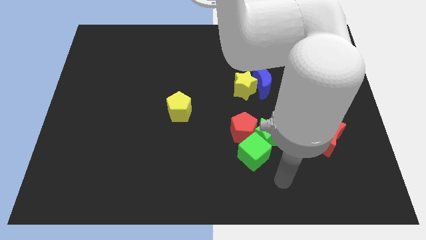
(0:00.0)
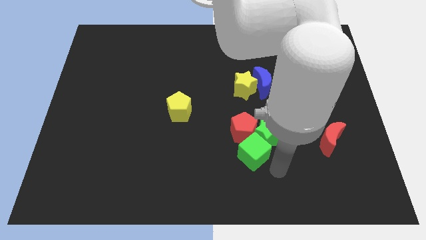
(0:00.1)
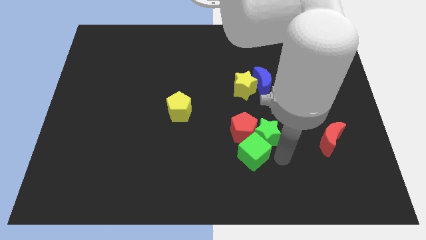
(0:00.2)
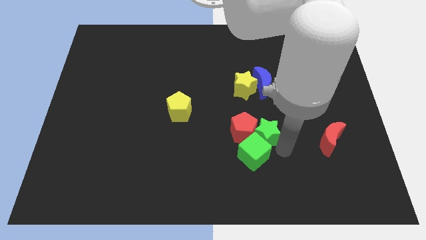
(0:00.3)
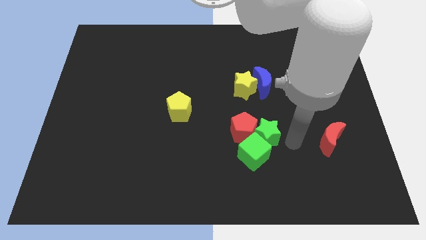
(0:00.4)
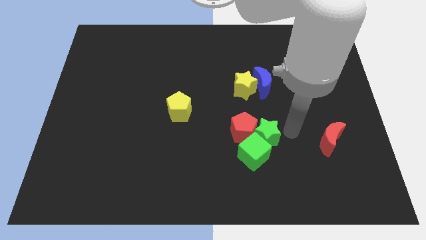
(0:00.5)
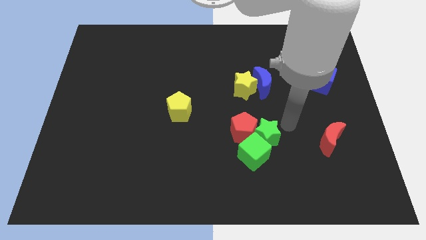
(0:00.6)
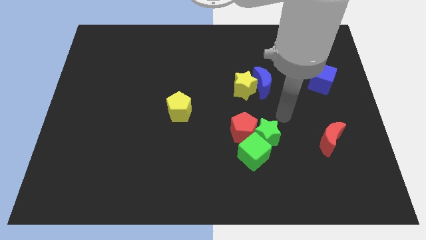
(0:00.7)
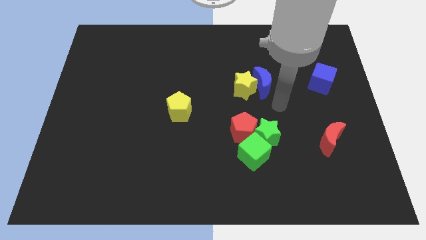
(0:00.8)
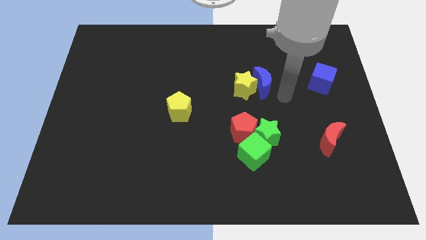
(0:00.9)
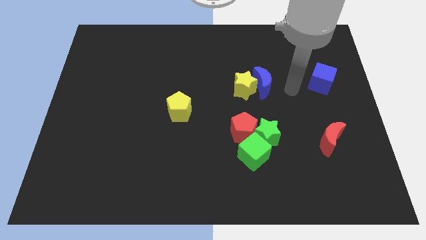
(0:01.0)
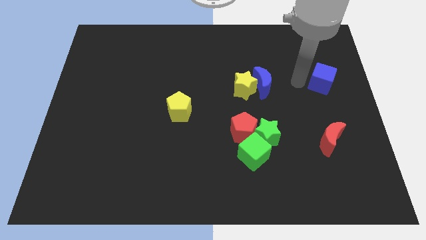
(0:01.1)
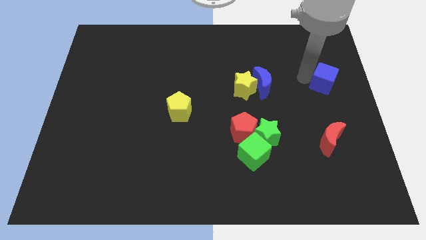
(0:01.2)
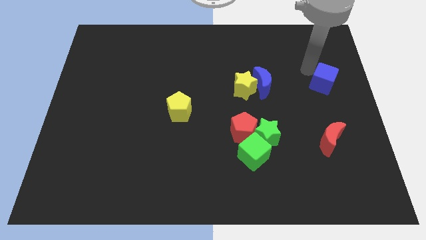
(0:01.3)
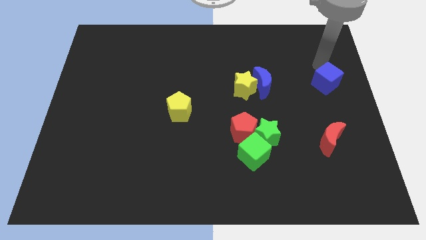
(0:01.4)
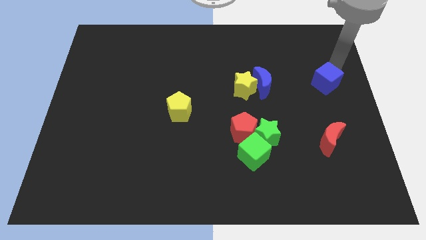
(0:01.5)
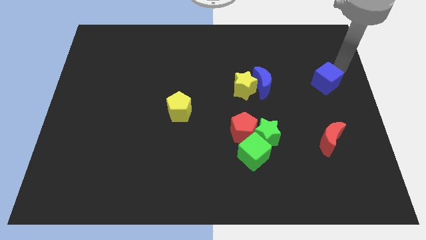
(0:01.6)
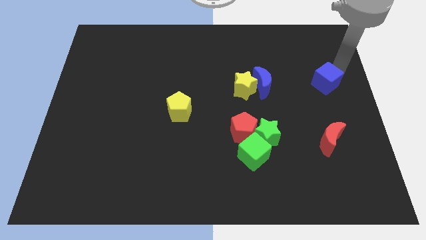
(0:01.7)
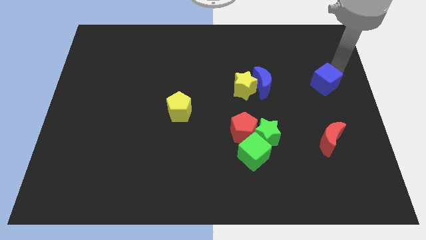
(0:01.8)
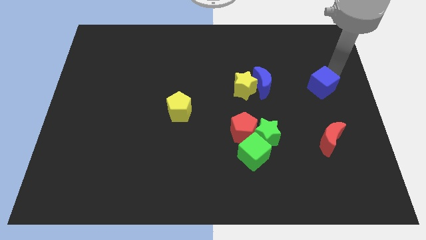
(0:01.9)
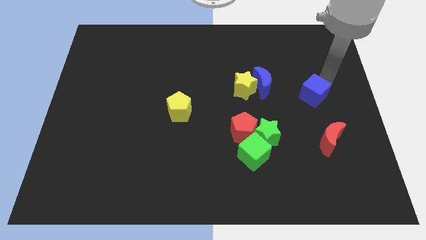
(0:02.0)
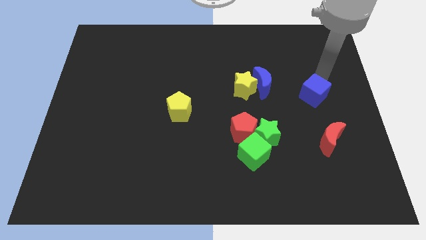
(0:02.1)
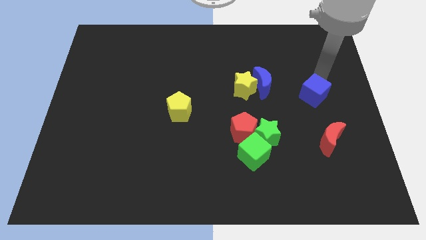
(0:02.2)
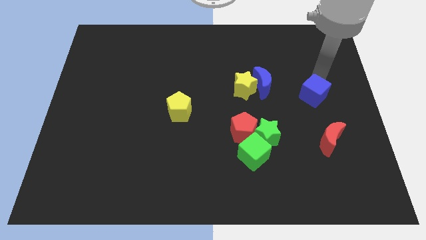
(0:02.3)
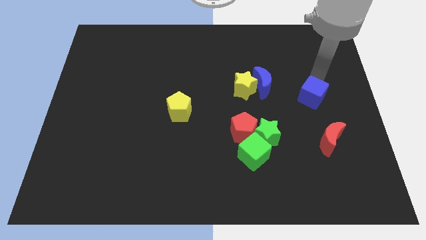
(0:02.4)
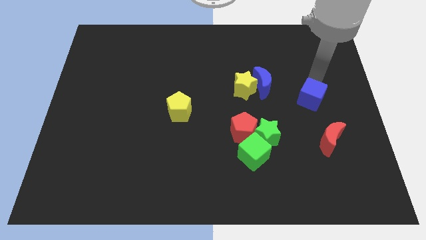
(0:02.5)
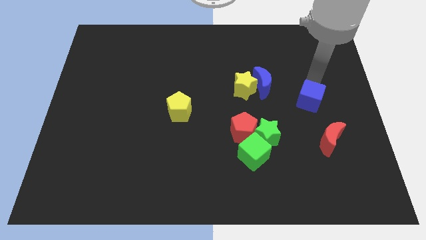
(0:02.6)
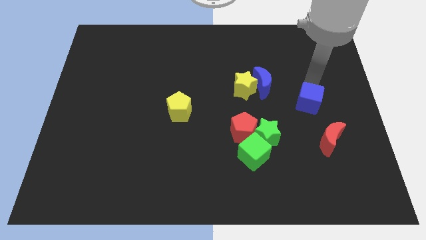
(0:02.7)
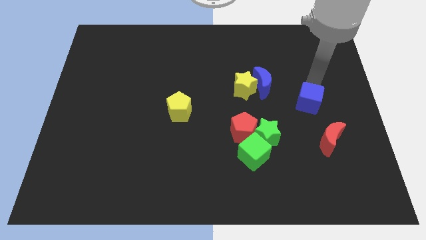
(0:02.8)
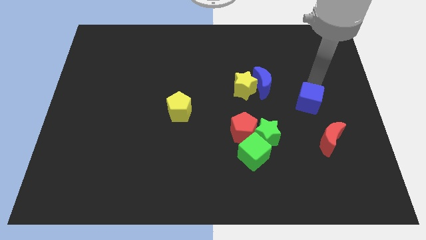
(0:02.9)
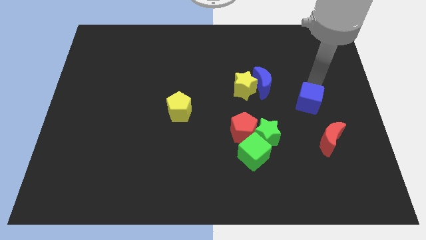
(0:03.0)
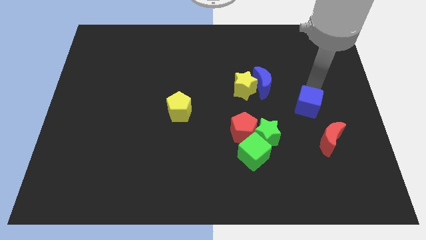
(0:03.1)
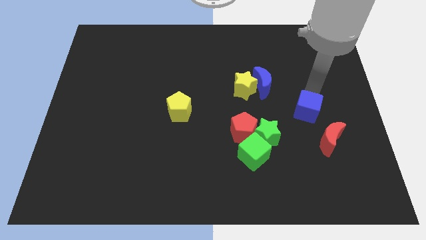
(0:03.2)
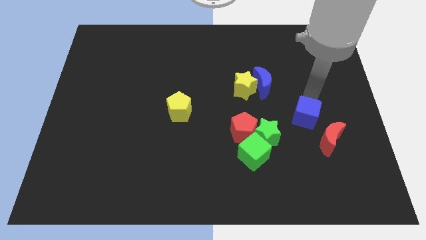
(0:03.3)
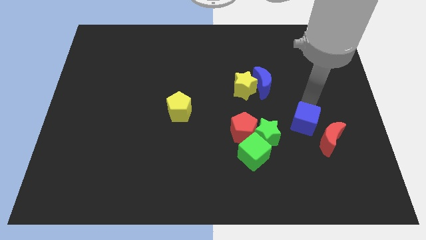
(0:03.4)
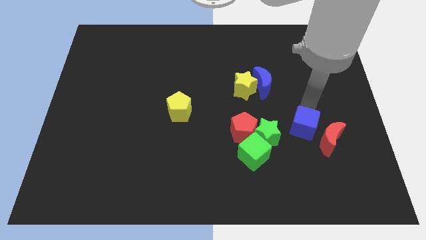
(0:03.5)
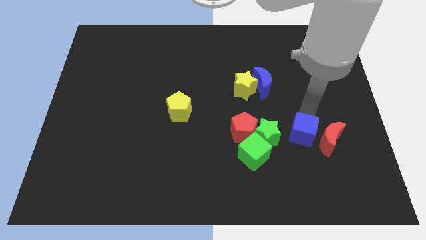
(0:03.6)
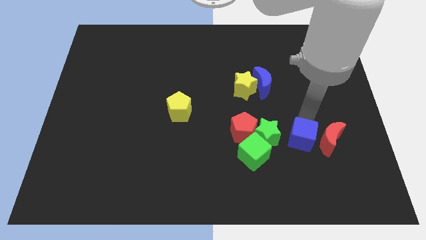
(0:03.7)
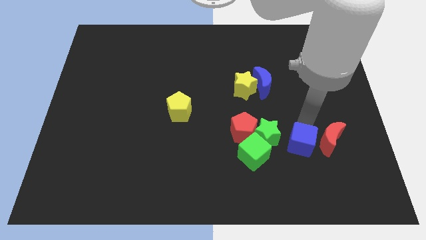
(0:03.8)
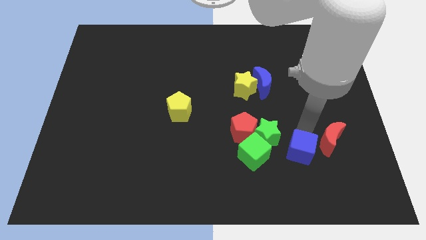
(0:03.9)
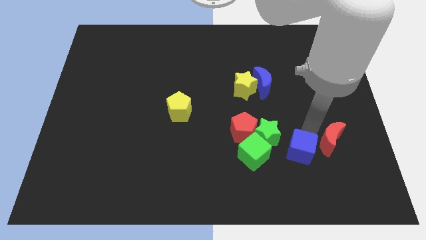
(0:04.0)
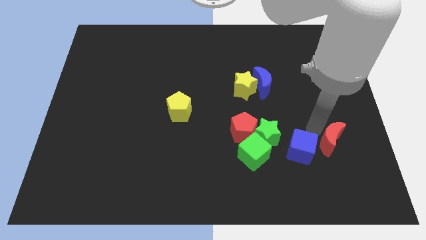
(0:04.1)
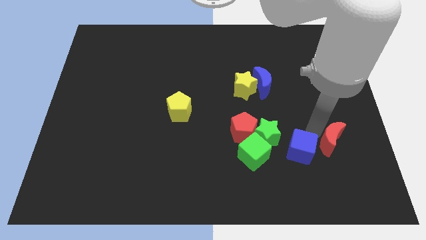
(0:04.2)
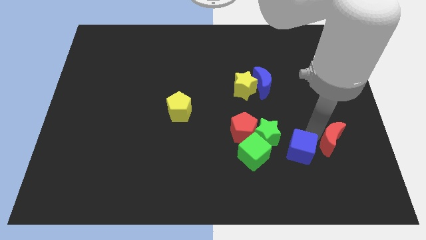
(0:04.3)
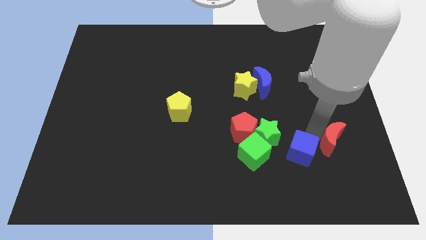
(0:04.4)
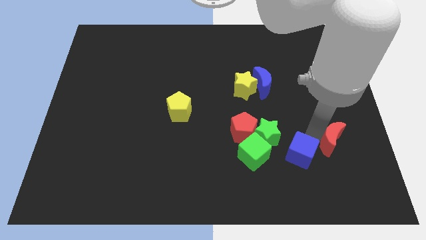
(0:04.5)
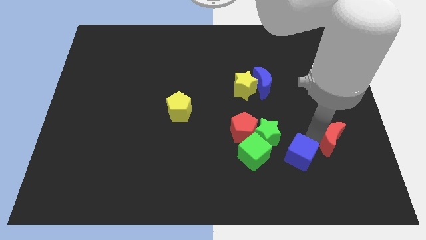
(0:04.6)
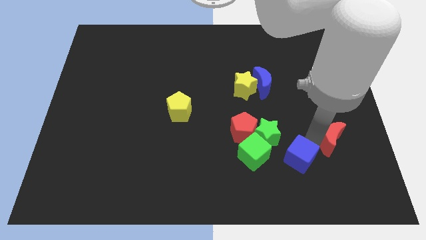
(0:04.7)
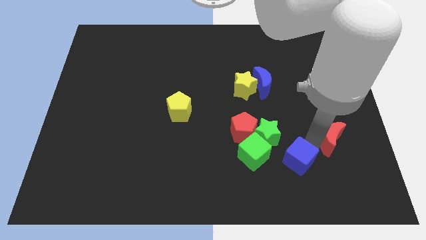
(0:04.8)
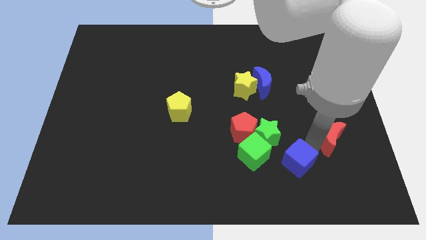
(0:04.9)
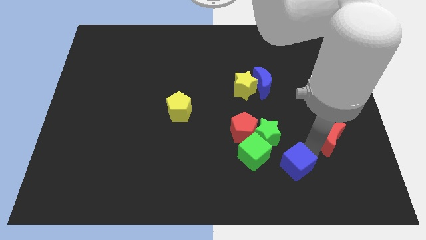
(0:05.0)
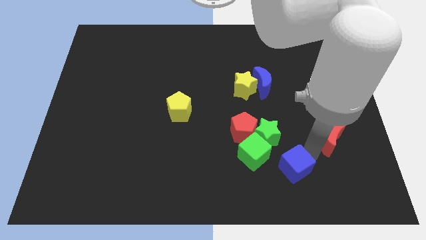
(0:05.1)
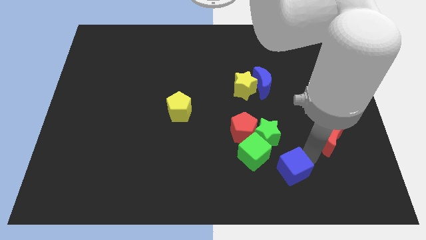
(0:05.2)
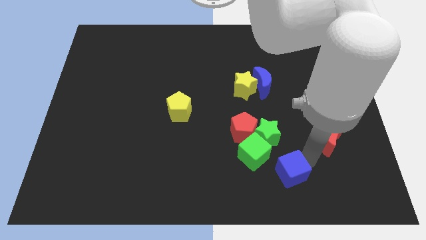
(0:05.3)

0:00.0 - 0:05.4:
push the blue cube below the green star

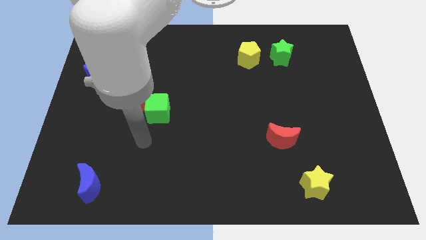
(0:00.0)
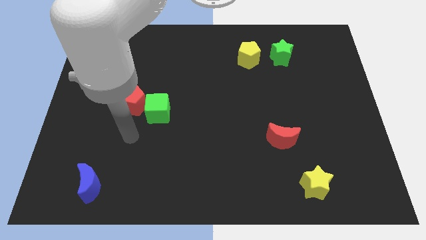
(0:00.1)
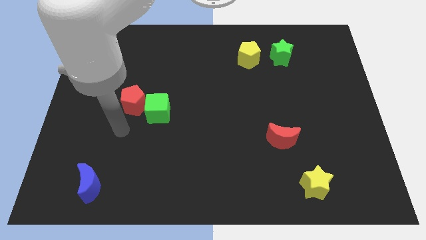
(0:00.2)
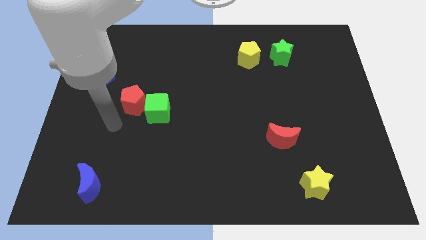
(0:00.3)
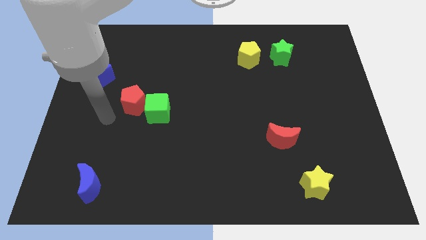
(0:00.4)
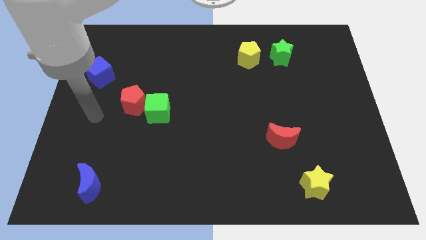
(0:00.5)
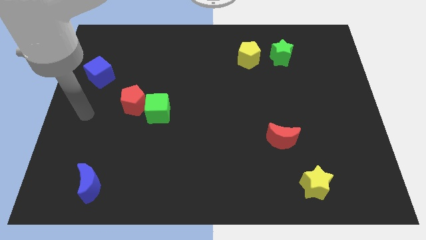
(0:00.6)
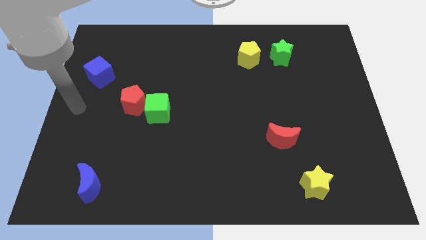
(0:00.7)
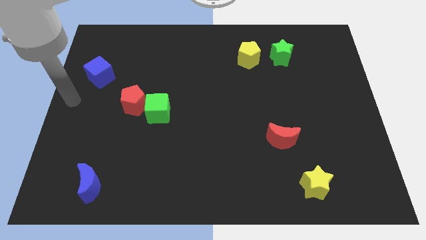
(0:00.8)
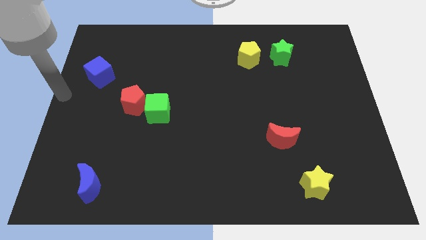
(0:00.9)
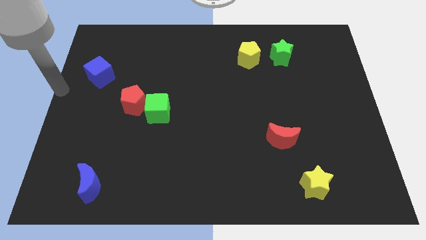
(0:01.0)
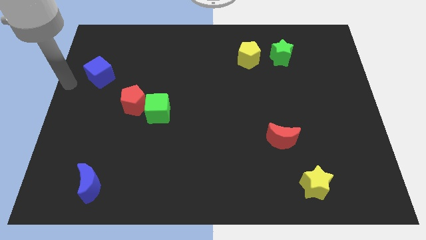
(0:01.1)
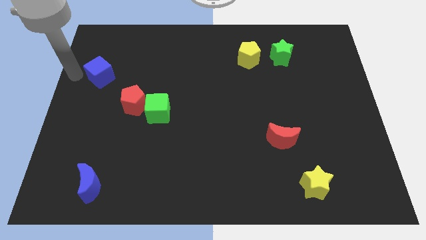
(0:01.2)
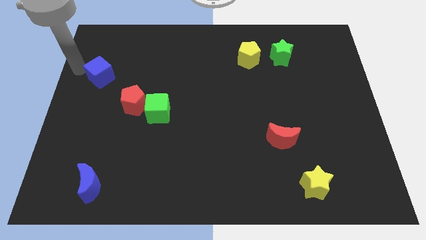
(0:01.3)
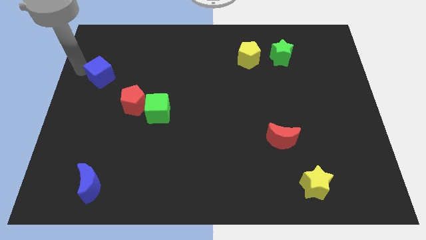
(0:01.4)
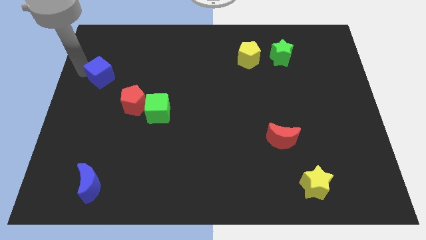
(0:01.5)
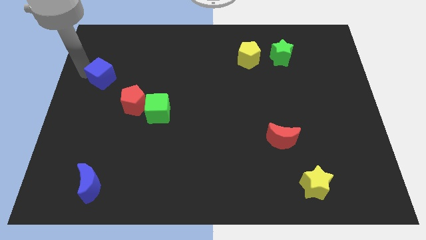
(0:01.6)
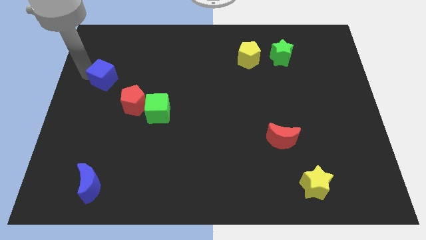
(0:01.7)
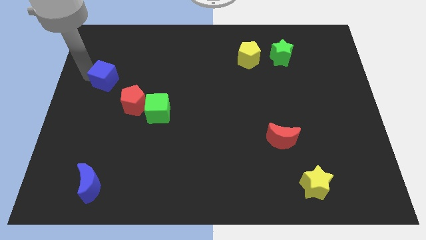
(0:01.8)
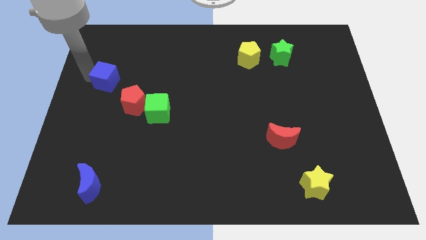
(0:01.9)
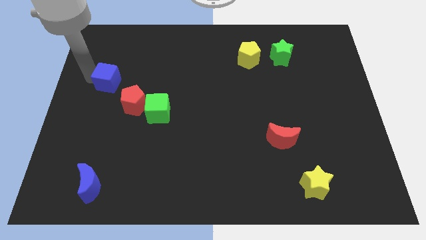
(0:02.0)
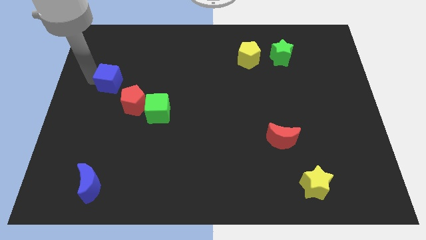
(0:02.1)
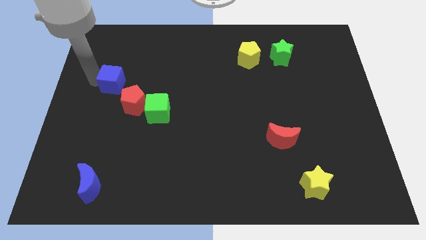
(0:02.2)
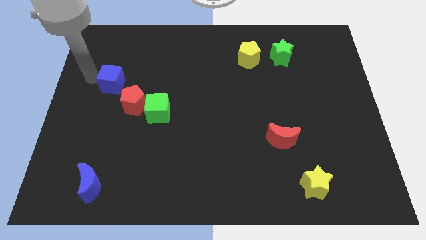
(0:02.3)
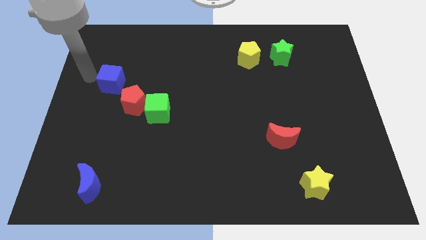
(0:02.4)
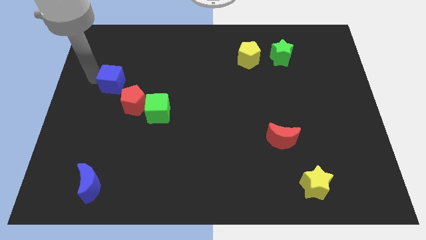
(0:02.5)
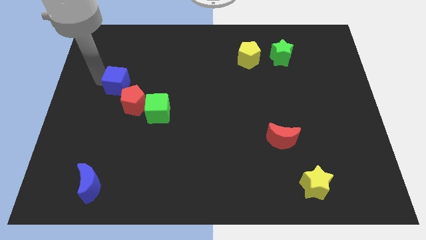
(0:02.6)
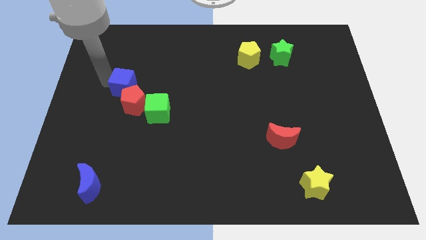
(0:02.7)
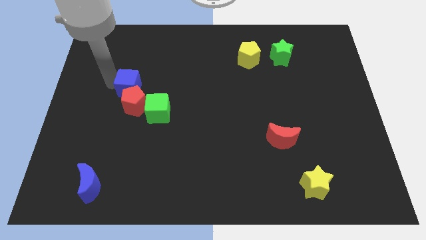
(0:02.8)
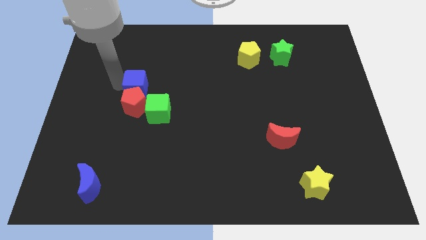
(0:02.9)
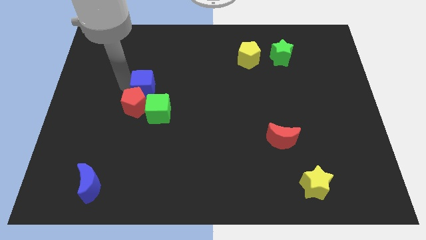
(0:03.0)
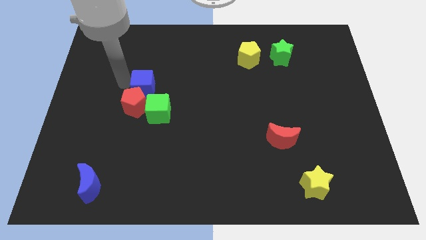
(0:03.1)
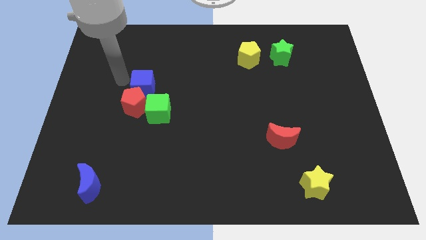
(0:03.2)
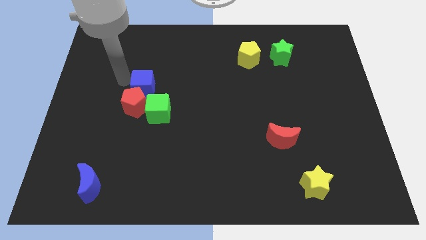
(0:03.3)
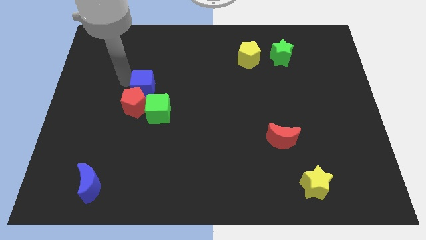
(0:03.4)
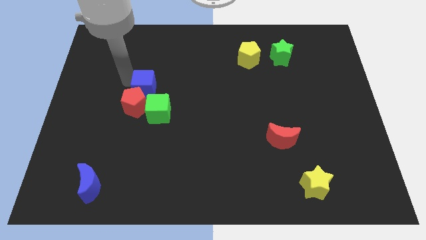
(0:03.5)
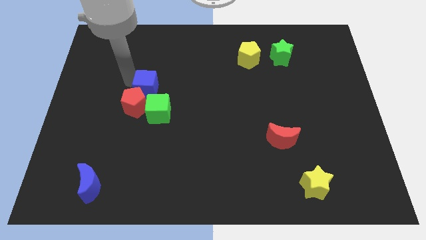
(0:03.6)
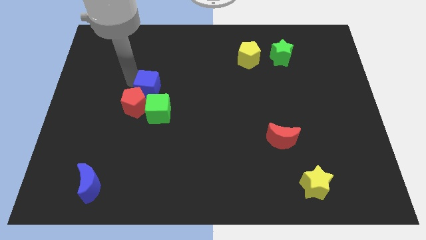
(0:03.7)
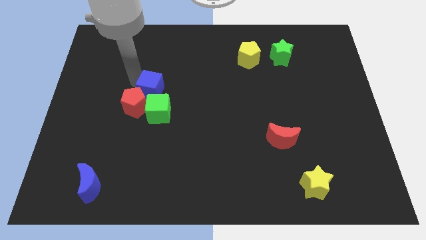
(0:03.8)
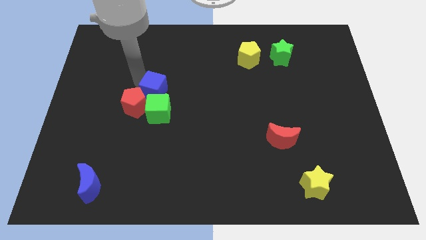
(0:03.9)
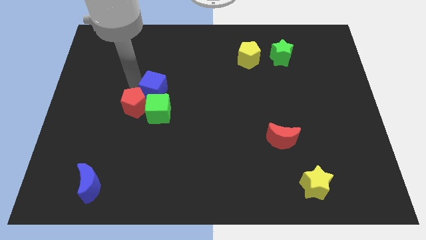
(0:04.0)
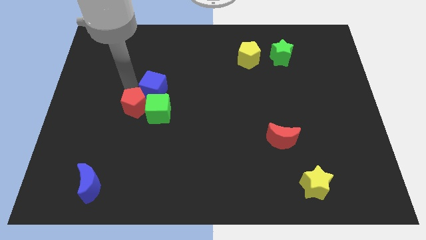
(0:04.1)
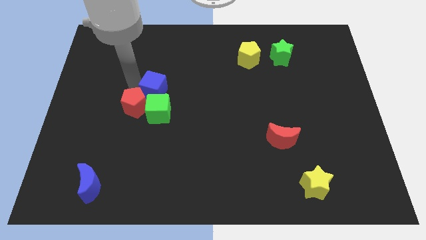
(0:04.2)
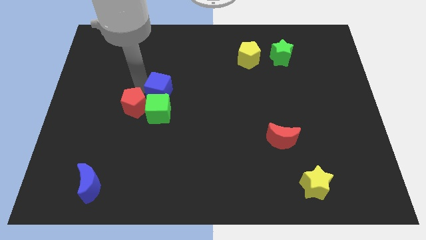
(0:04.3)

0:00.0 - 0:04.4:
push the blue cube to the top right of the green cube
